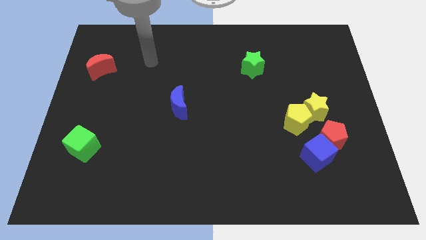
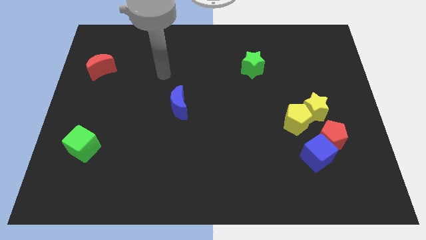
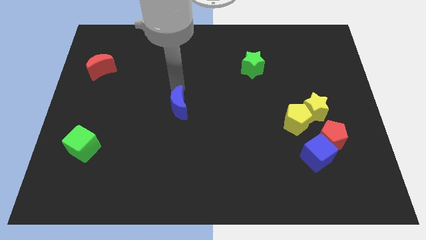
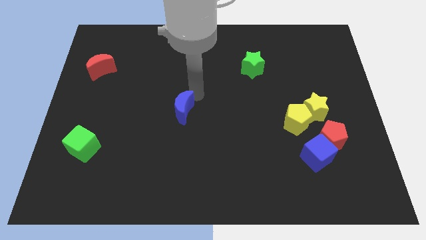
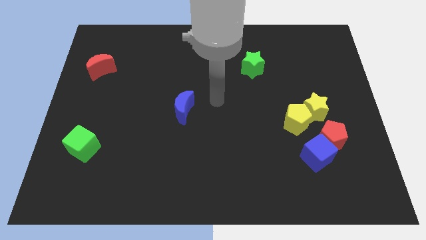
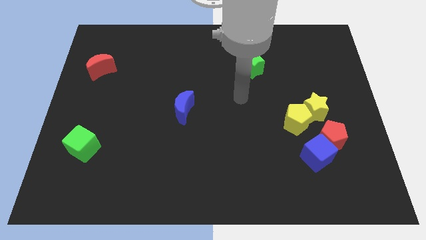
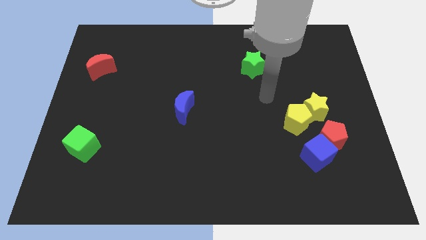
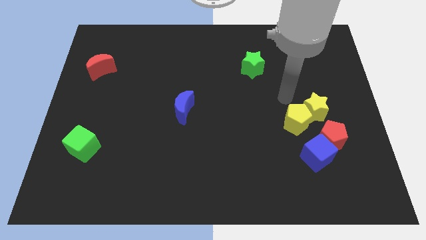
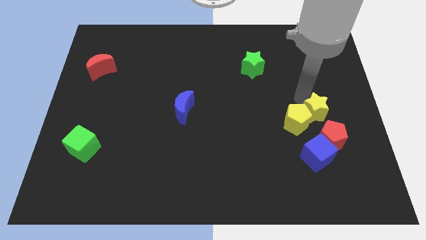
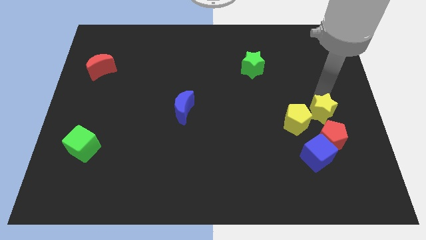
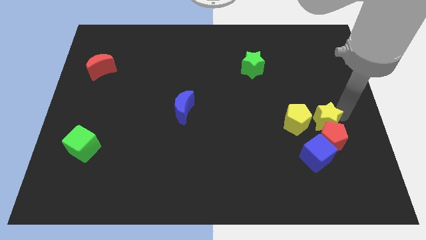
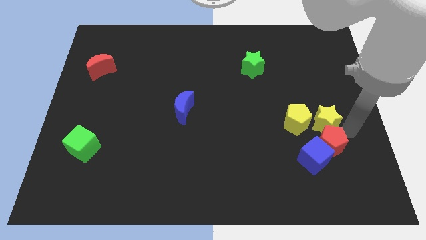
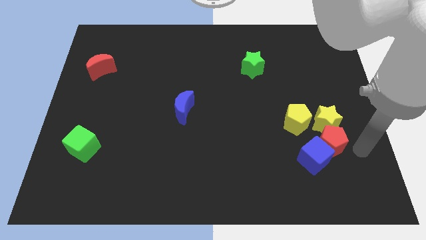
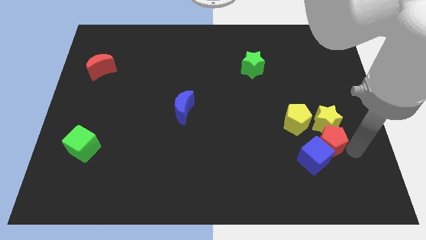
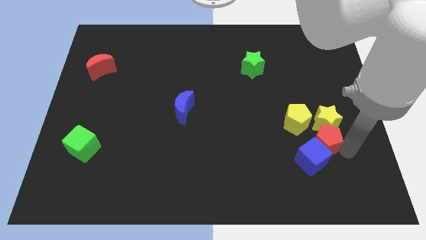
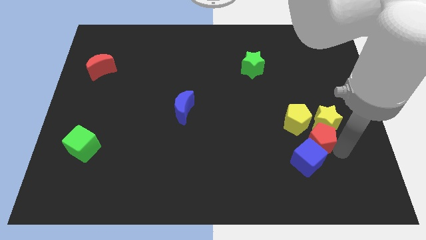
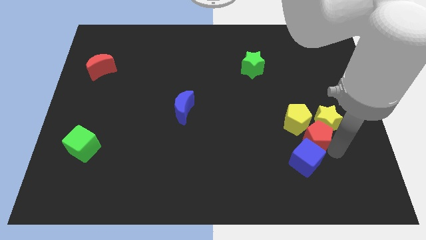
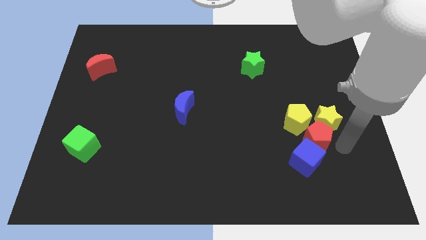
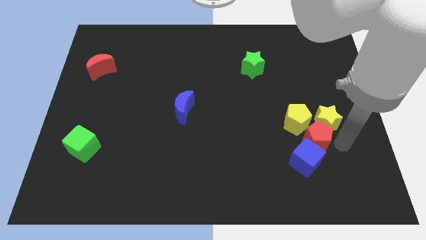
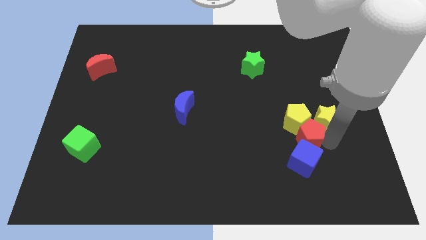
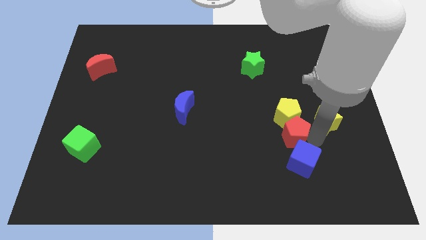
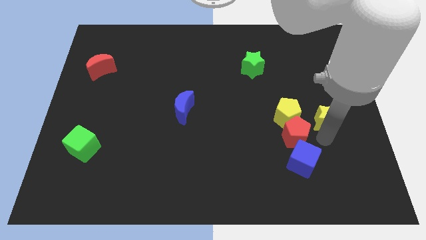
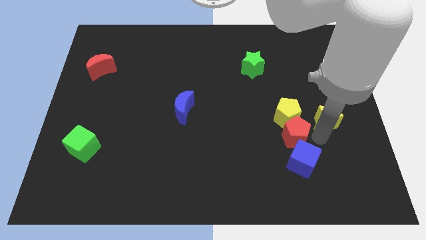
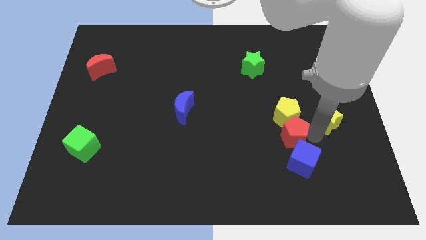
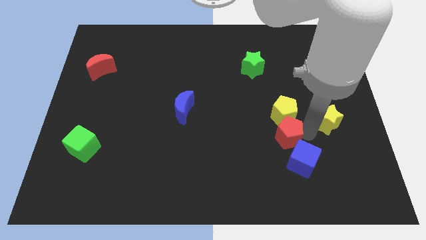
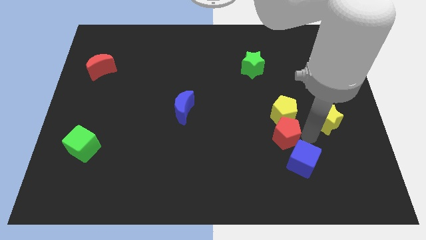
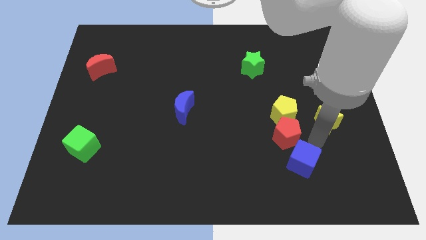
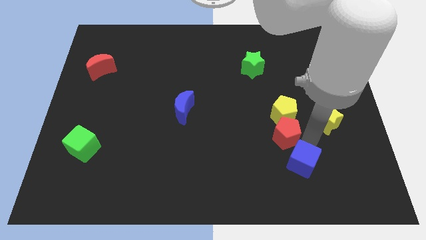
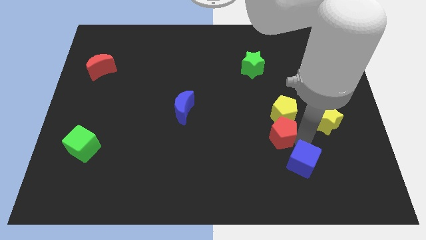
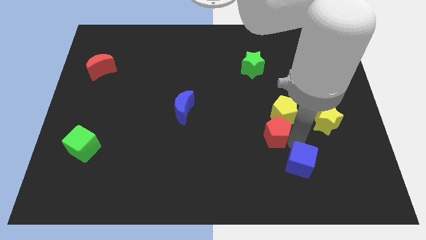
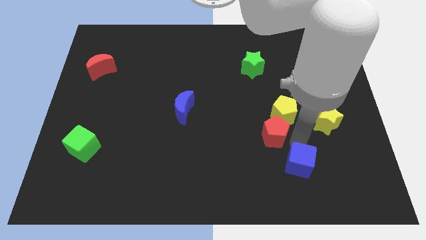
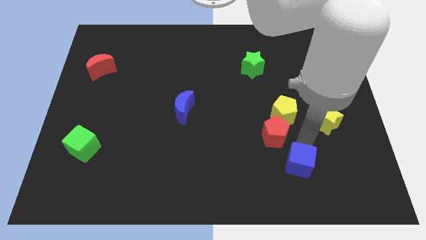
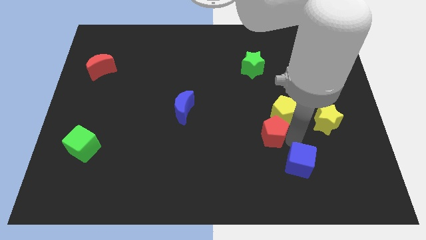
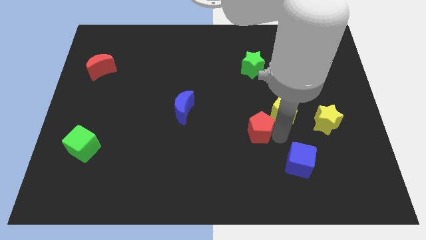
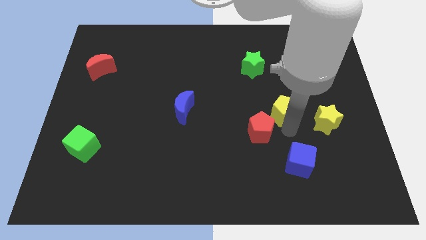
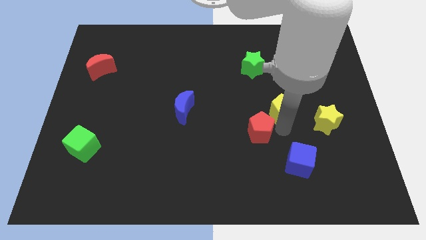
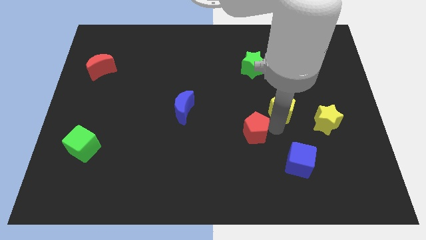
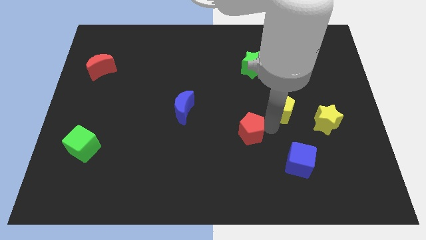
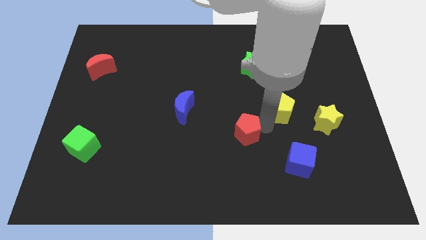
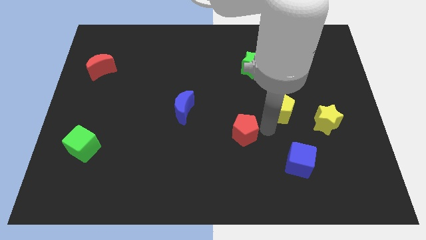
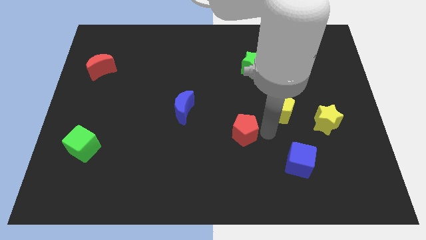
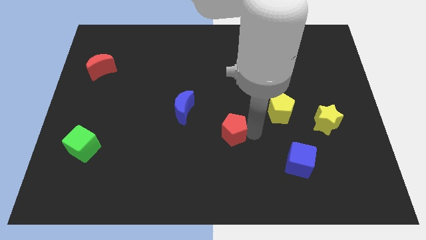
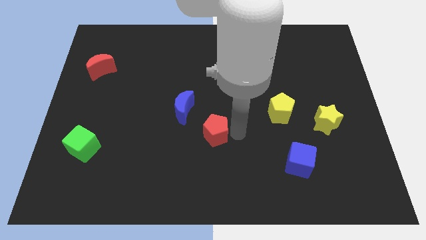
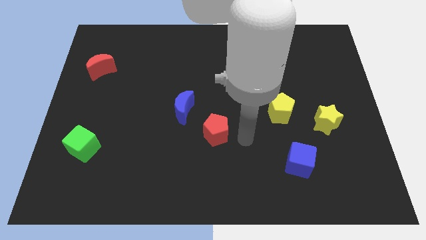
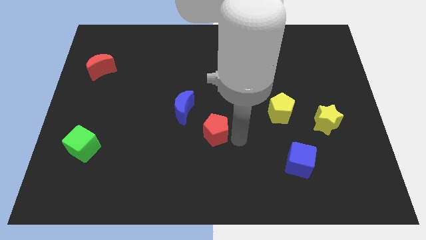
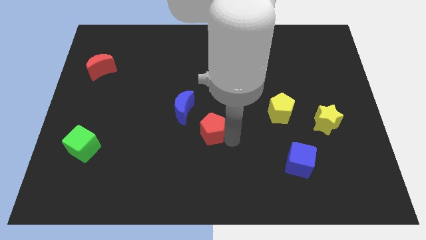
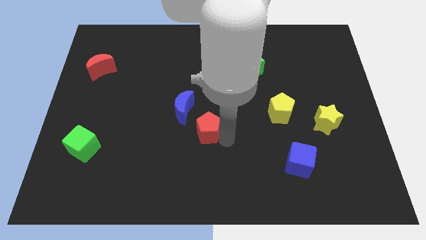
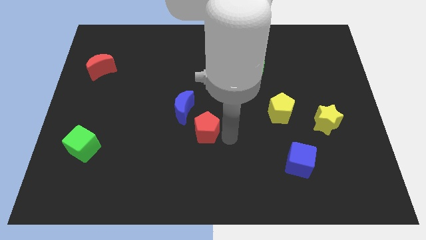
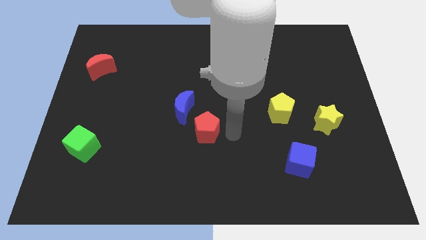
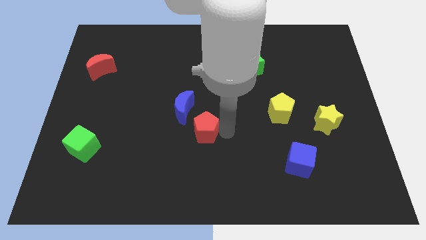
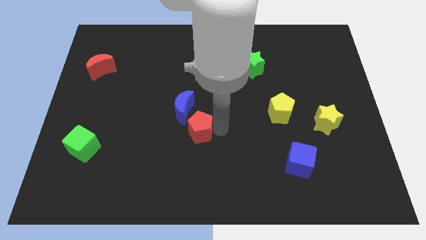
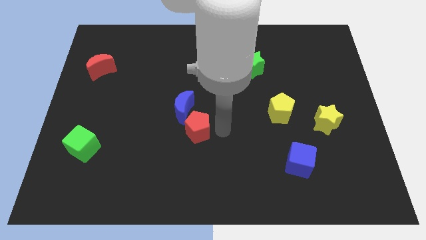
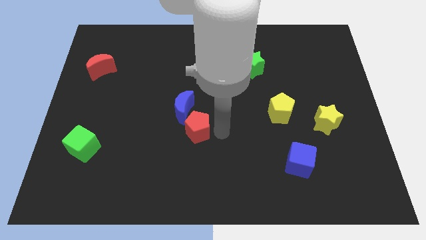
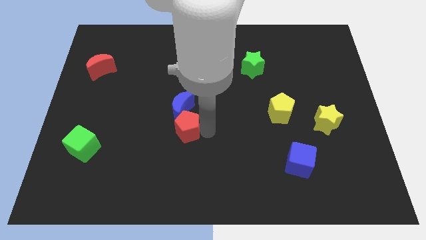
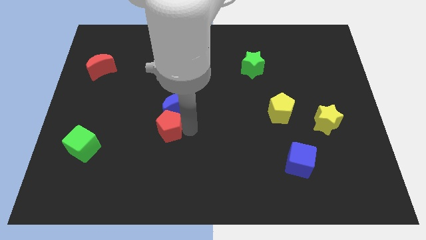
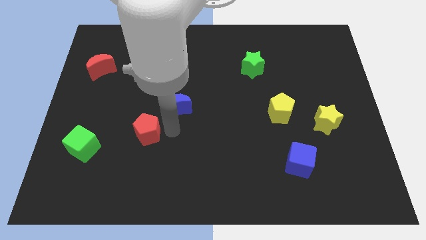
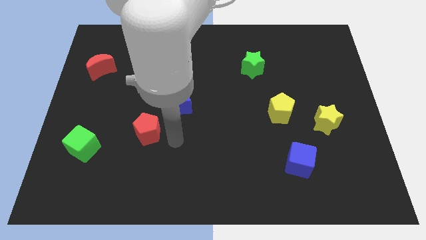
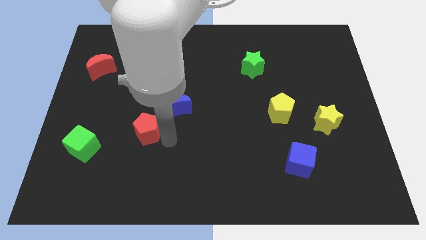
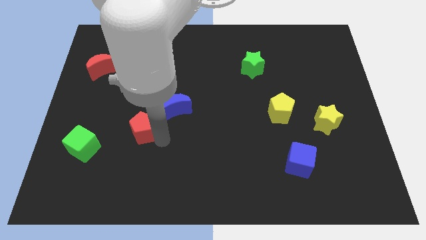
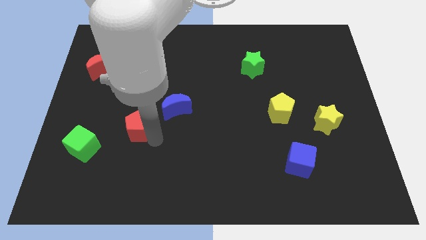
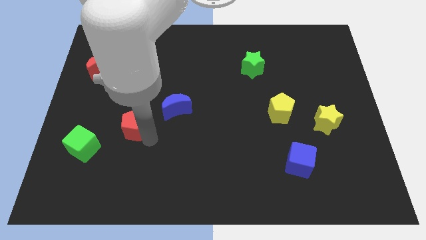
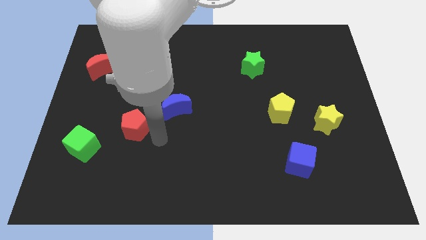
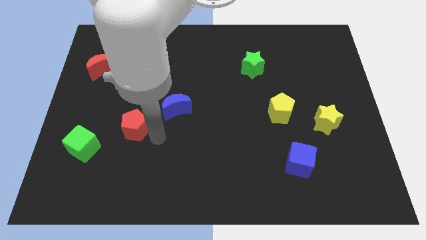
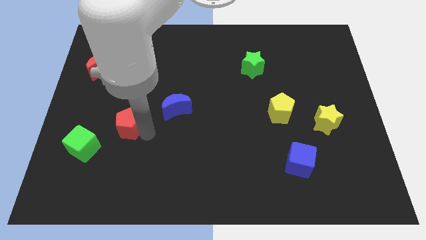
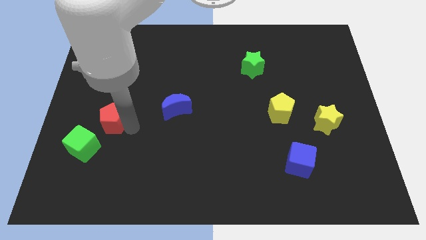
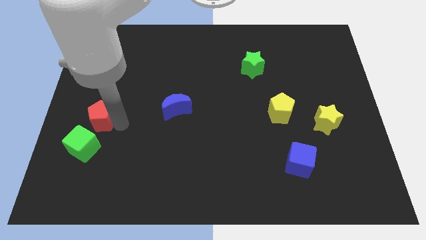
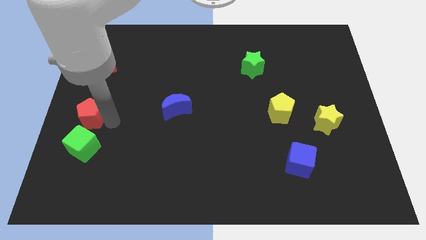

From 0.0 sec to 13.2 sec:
push the red pentagon to the center left
